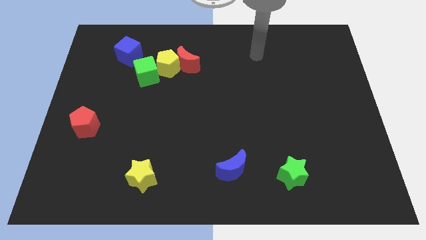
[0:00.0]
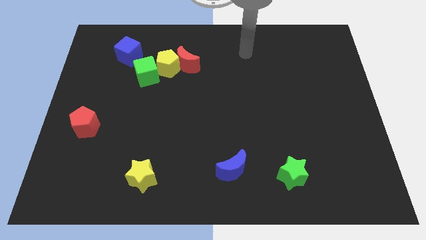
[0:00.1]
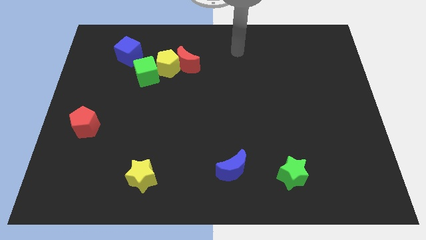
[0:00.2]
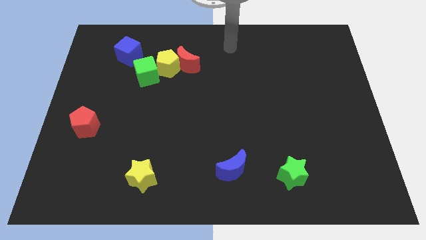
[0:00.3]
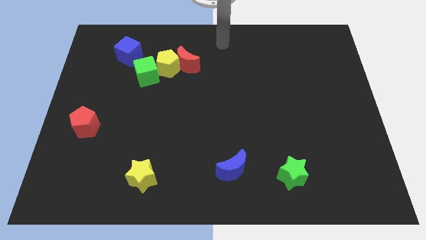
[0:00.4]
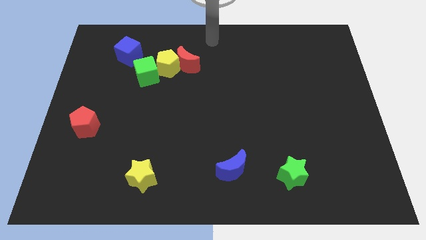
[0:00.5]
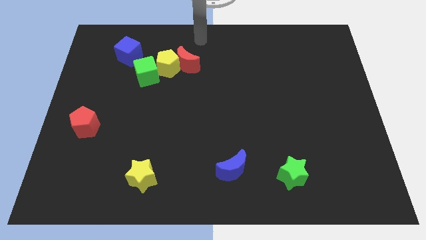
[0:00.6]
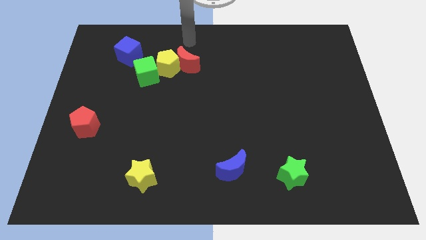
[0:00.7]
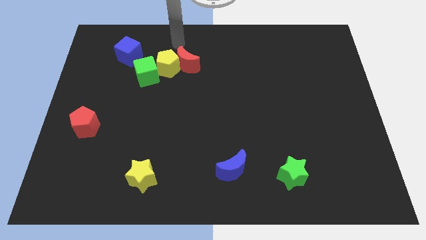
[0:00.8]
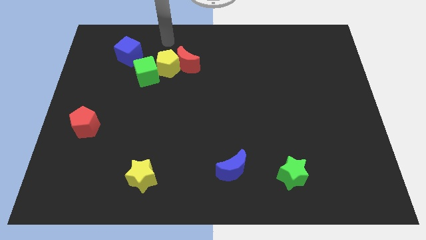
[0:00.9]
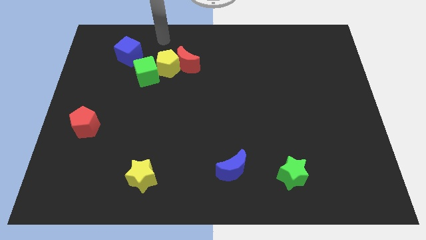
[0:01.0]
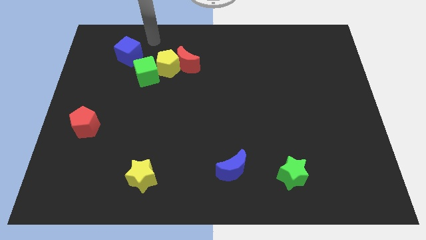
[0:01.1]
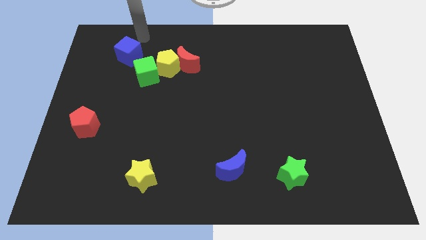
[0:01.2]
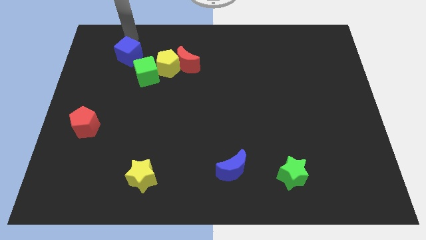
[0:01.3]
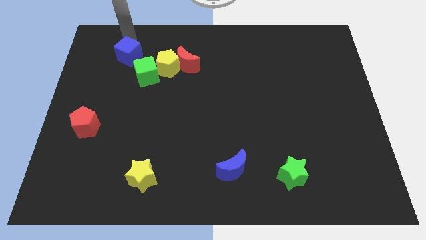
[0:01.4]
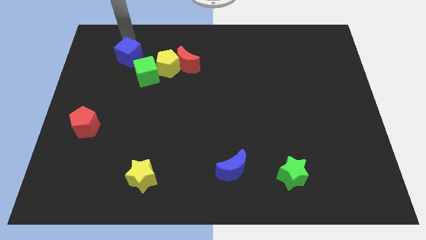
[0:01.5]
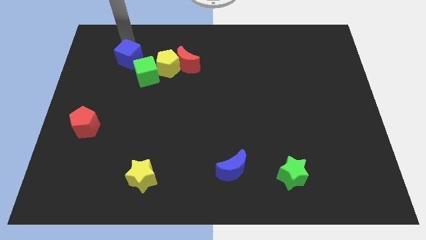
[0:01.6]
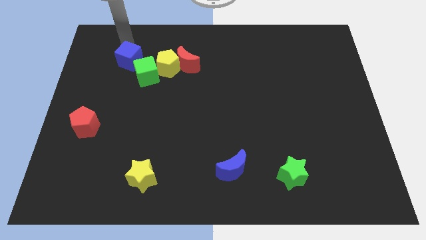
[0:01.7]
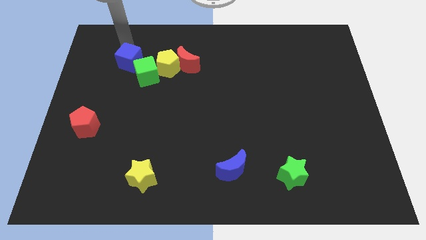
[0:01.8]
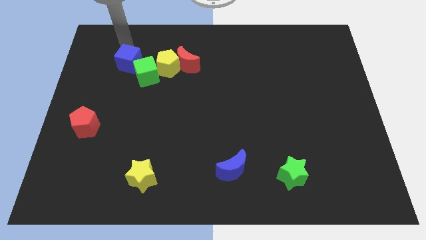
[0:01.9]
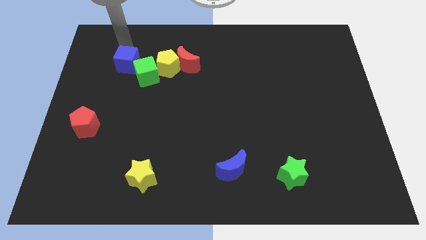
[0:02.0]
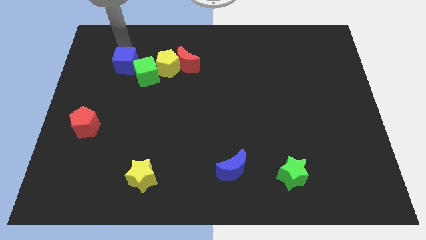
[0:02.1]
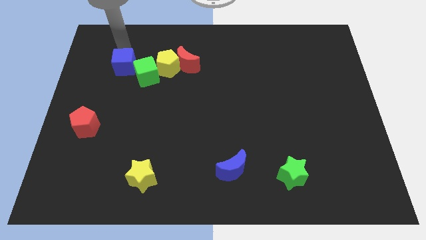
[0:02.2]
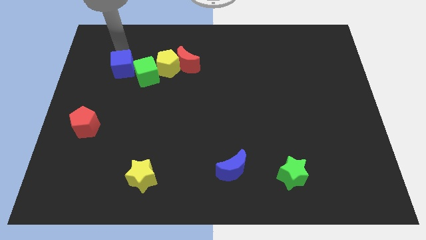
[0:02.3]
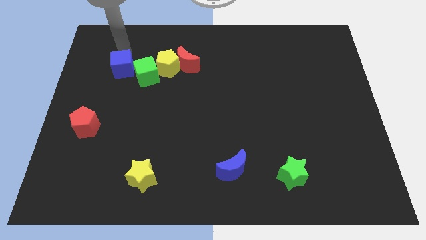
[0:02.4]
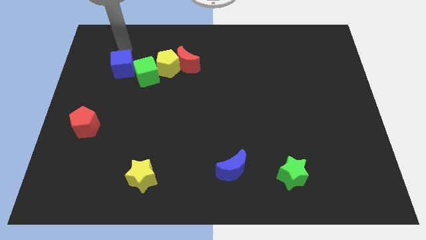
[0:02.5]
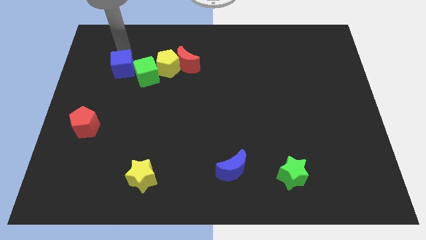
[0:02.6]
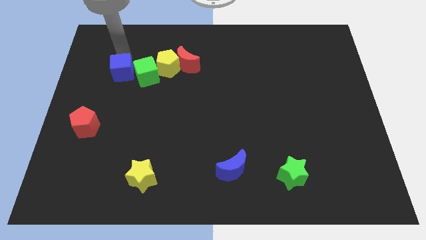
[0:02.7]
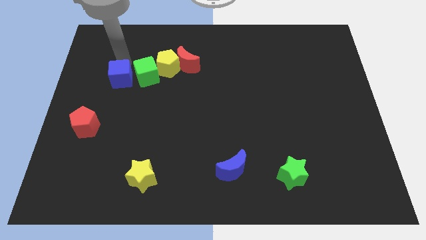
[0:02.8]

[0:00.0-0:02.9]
slightly slide the blue cube downwards

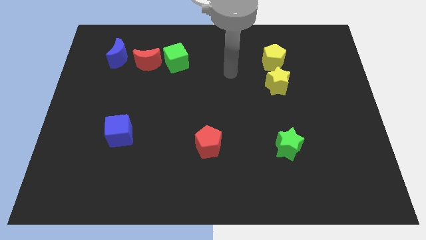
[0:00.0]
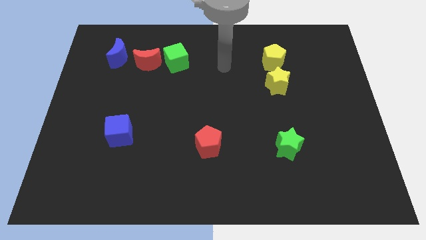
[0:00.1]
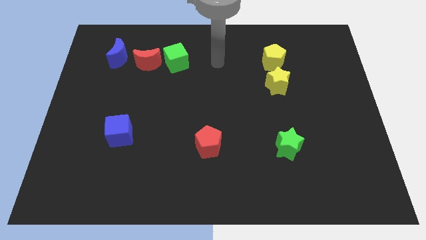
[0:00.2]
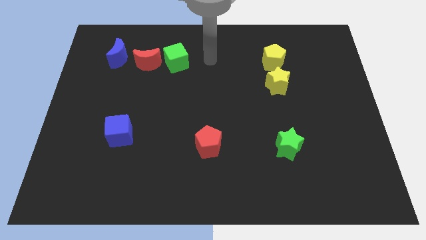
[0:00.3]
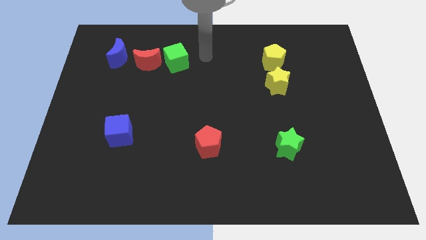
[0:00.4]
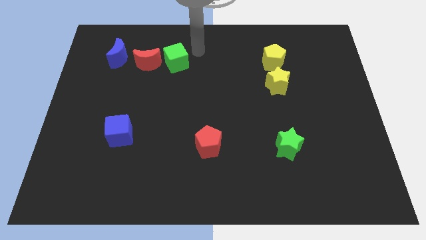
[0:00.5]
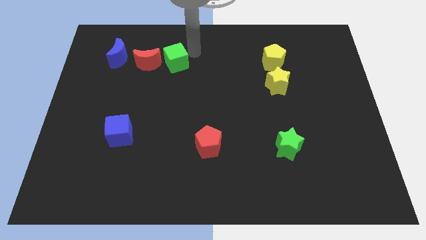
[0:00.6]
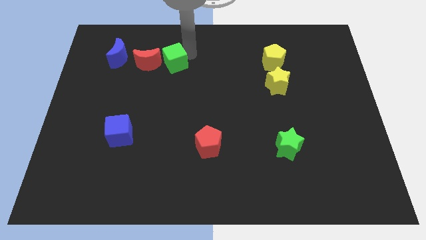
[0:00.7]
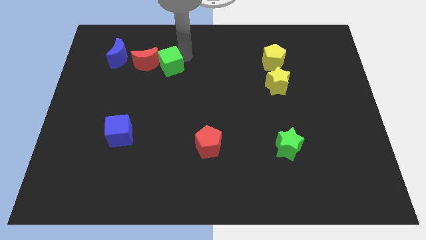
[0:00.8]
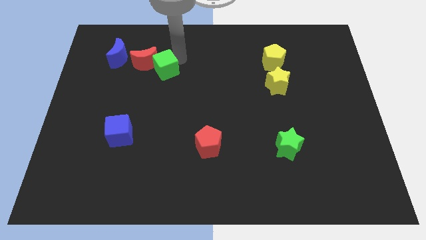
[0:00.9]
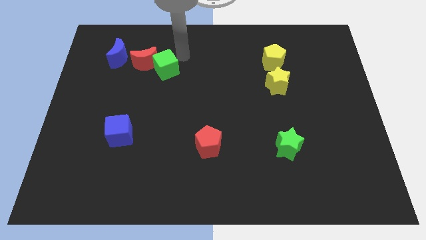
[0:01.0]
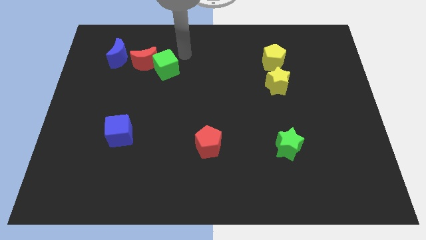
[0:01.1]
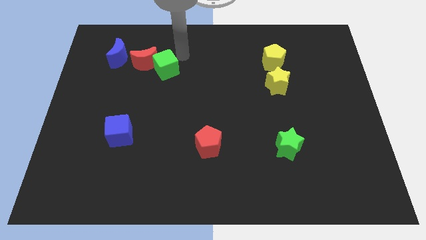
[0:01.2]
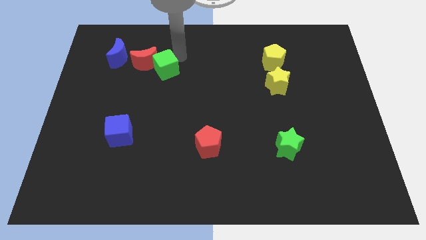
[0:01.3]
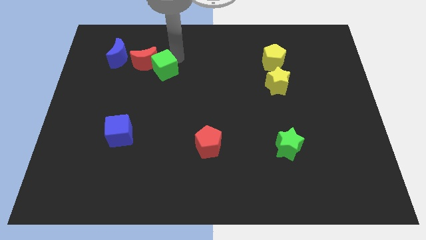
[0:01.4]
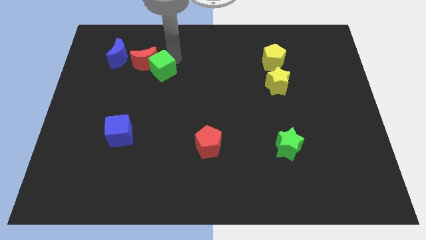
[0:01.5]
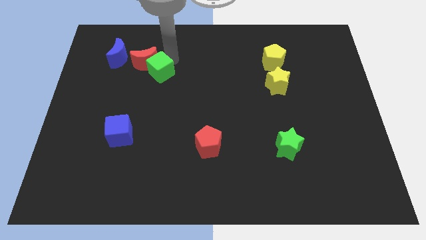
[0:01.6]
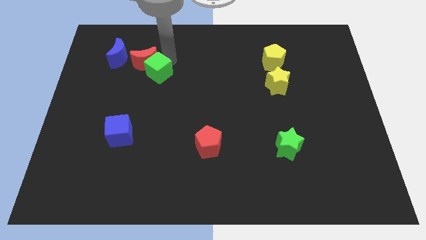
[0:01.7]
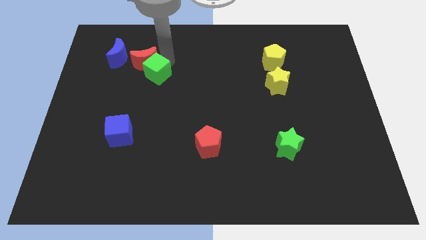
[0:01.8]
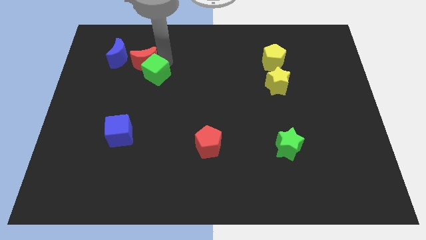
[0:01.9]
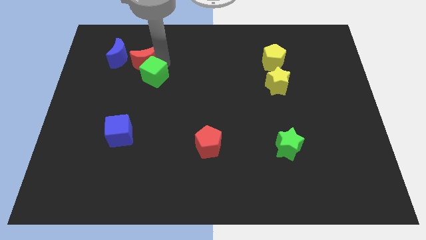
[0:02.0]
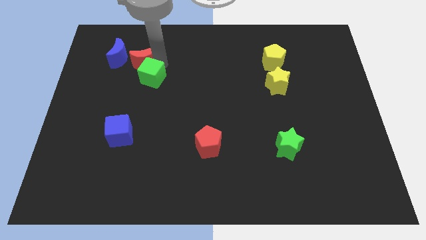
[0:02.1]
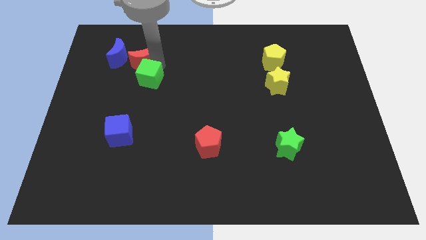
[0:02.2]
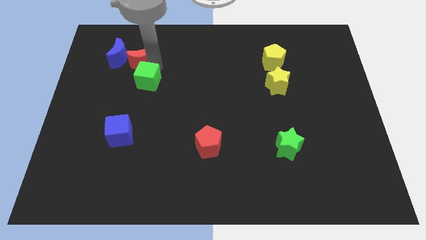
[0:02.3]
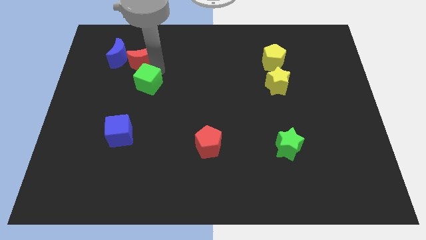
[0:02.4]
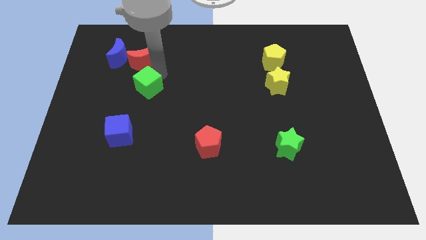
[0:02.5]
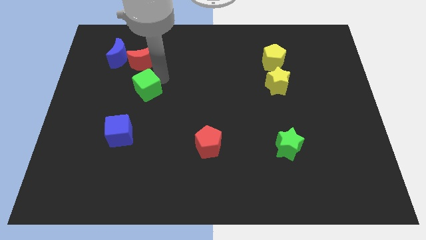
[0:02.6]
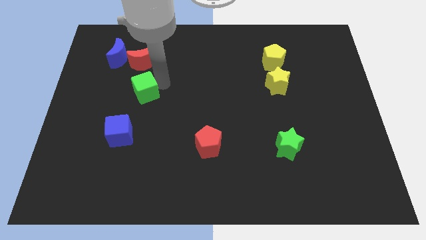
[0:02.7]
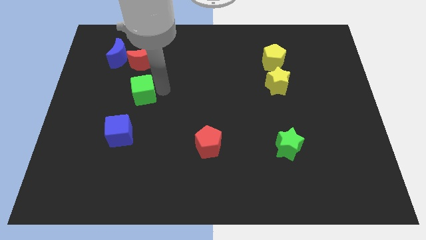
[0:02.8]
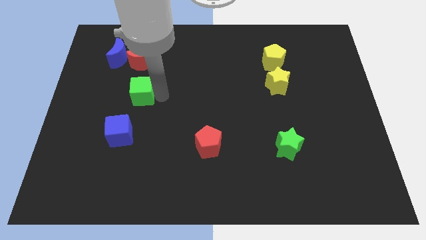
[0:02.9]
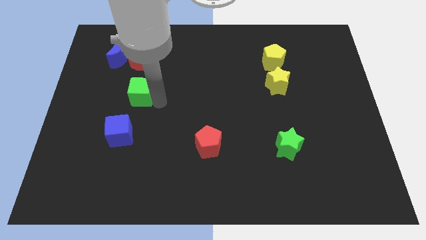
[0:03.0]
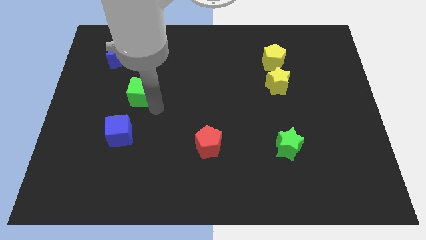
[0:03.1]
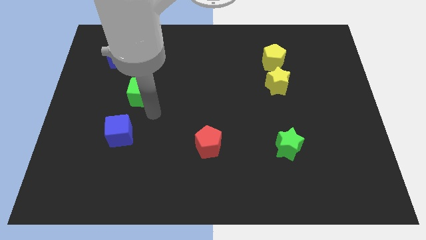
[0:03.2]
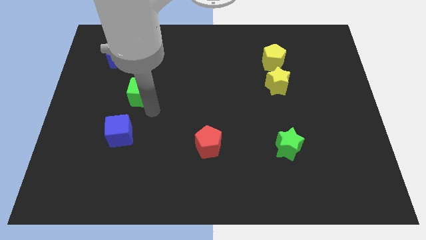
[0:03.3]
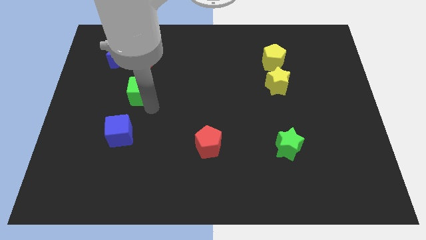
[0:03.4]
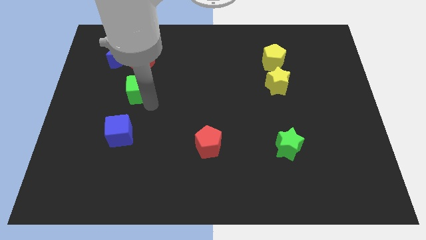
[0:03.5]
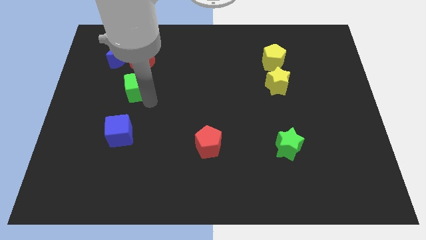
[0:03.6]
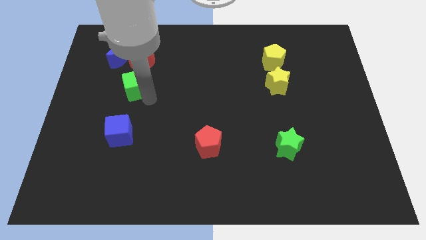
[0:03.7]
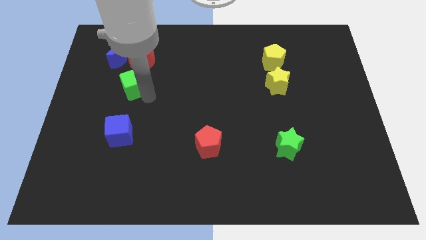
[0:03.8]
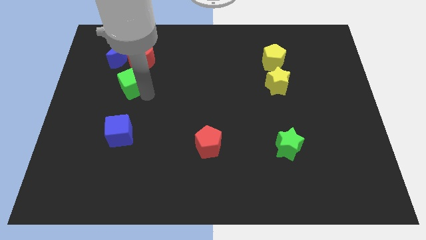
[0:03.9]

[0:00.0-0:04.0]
move the green cube to the left a little

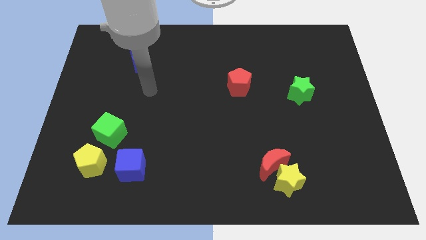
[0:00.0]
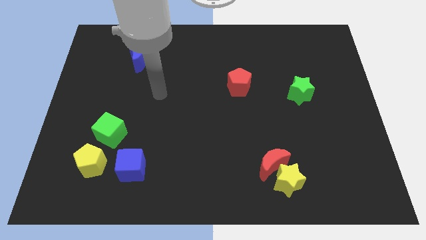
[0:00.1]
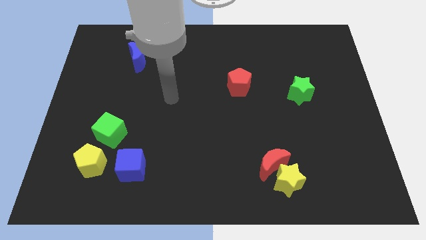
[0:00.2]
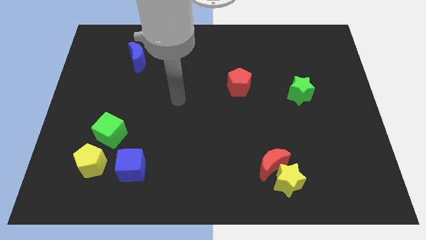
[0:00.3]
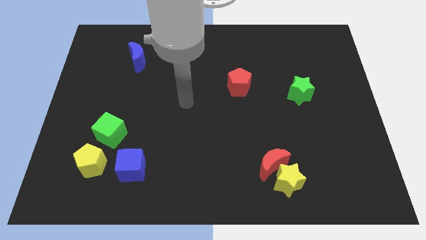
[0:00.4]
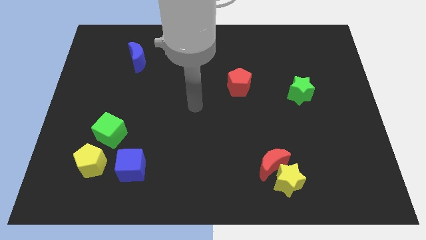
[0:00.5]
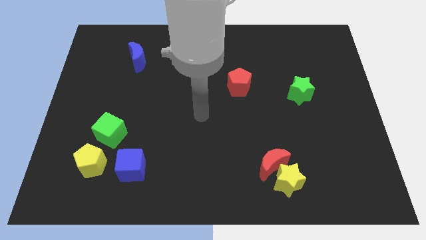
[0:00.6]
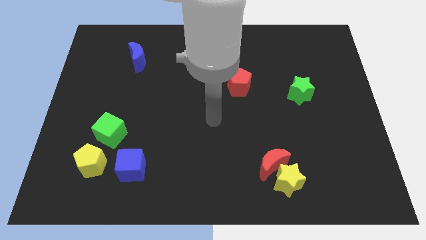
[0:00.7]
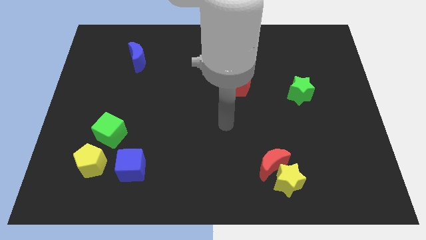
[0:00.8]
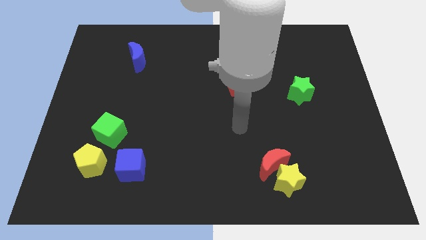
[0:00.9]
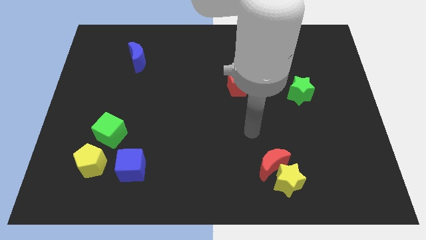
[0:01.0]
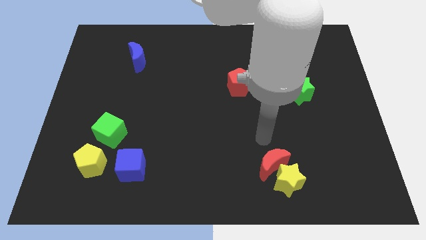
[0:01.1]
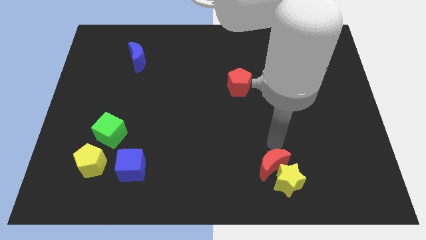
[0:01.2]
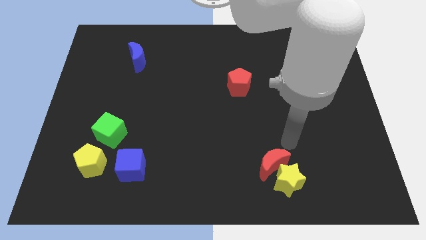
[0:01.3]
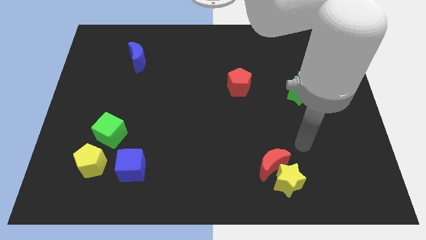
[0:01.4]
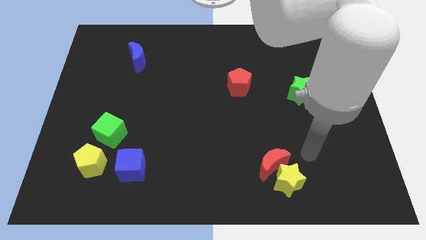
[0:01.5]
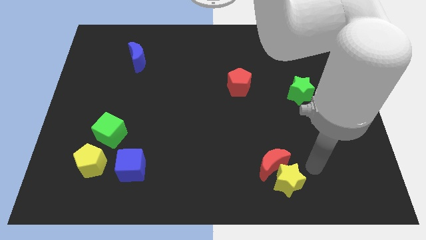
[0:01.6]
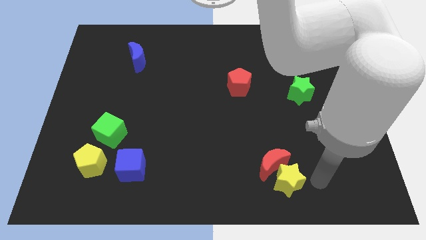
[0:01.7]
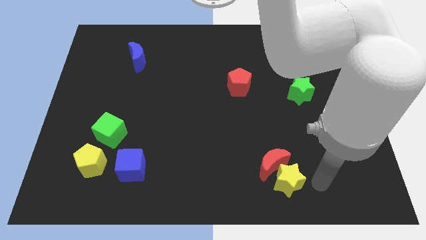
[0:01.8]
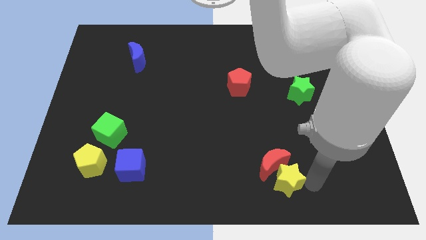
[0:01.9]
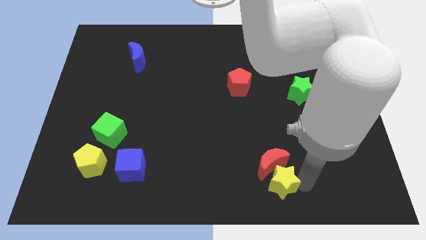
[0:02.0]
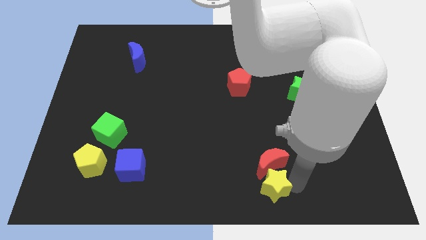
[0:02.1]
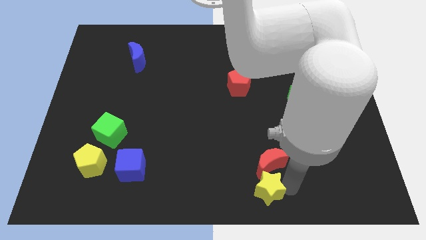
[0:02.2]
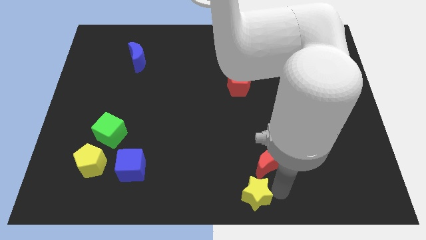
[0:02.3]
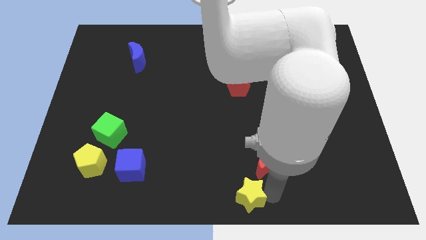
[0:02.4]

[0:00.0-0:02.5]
slightly move the yellow star left
